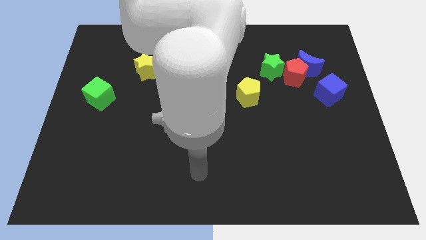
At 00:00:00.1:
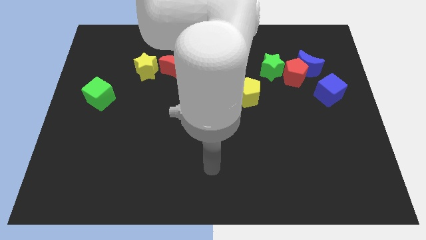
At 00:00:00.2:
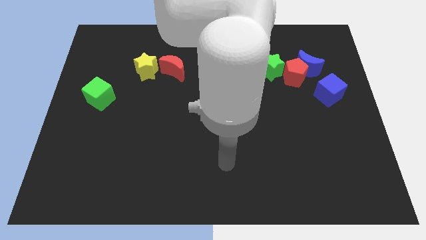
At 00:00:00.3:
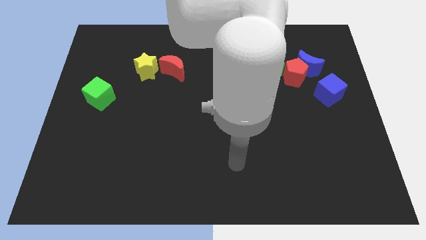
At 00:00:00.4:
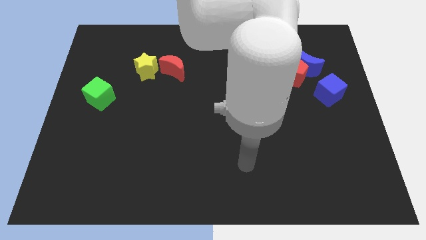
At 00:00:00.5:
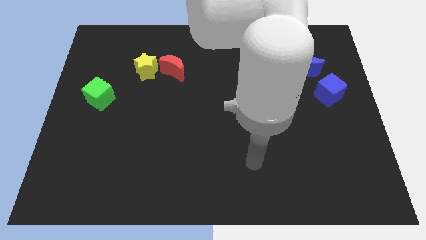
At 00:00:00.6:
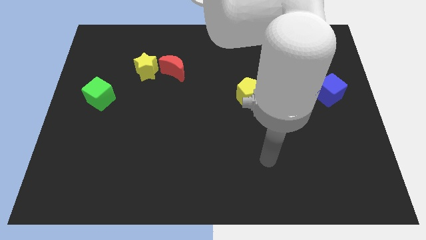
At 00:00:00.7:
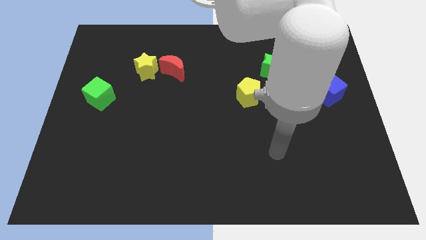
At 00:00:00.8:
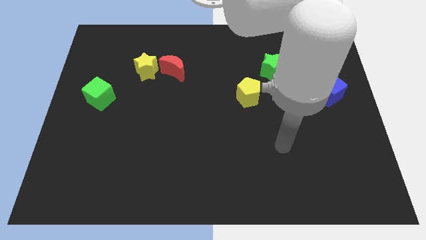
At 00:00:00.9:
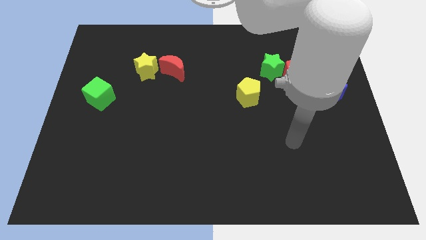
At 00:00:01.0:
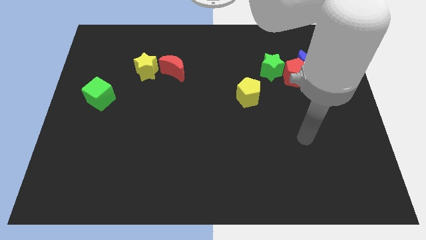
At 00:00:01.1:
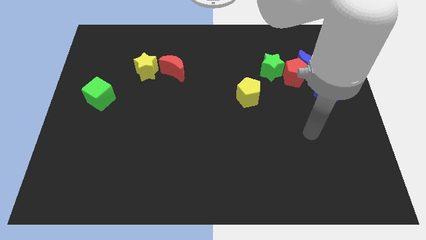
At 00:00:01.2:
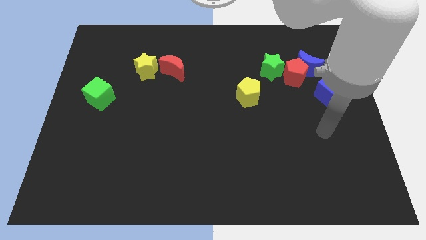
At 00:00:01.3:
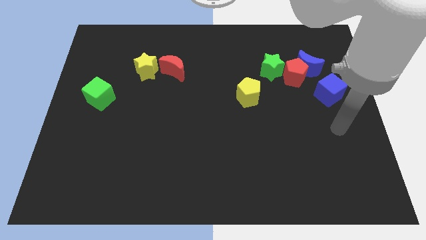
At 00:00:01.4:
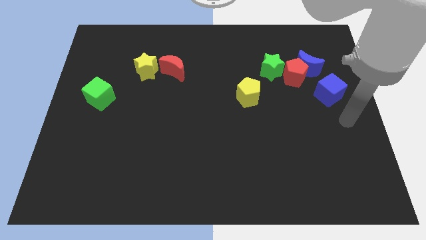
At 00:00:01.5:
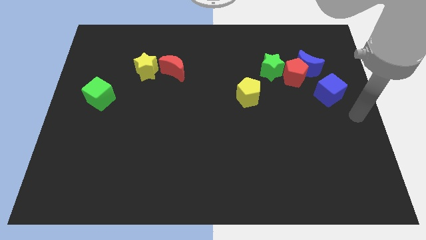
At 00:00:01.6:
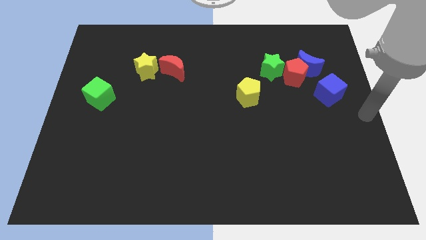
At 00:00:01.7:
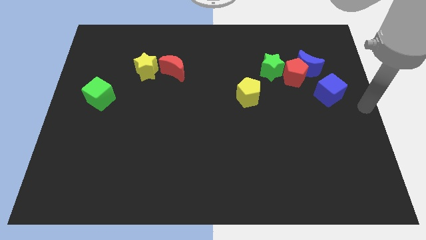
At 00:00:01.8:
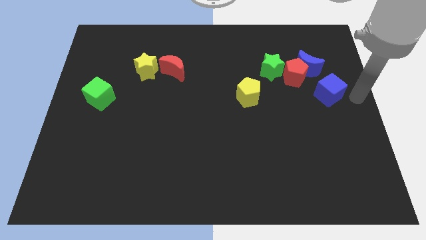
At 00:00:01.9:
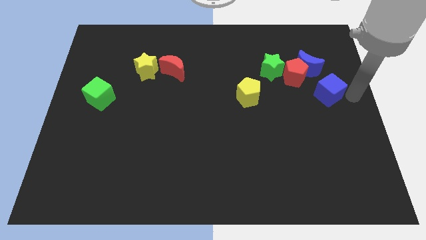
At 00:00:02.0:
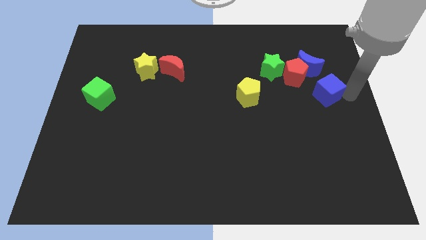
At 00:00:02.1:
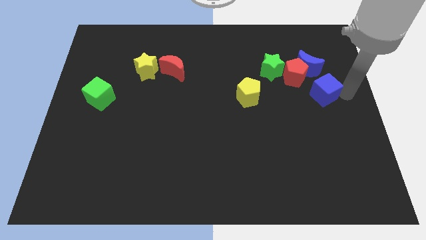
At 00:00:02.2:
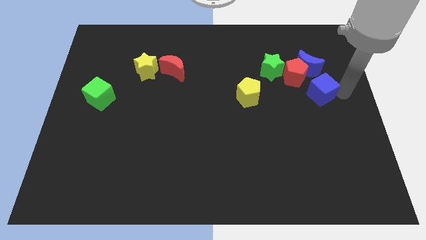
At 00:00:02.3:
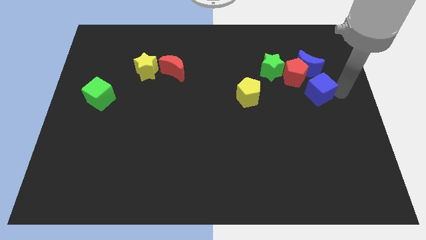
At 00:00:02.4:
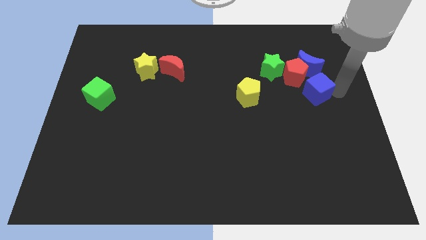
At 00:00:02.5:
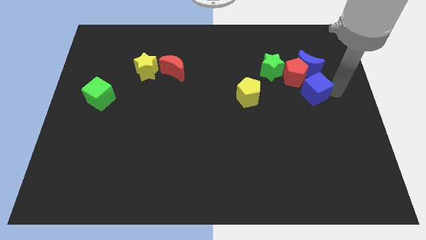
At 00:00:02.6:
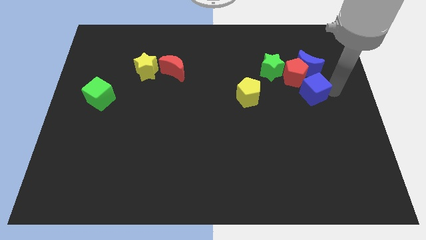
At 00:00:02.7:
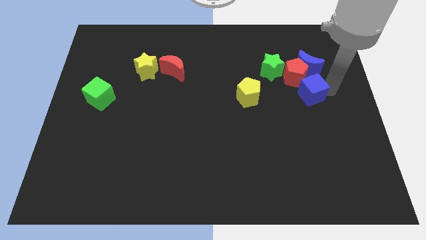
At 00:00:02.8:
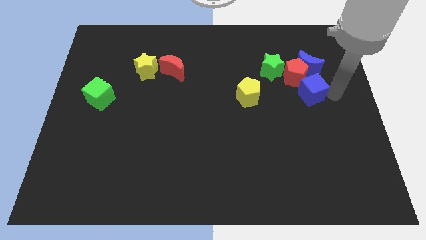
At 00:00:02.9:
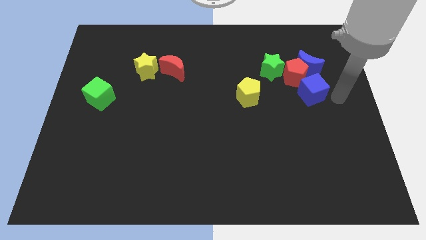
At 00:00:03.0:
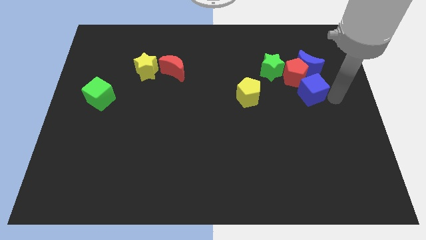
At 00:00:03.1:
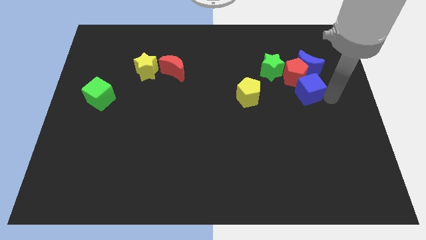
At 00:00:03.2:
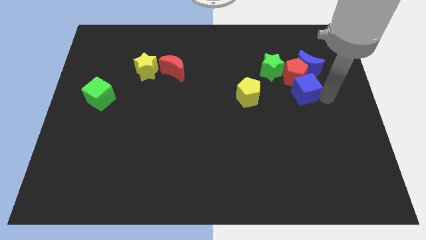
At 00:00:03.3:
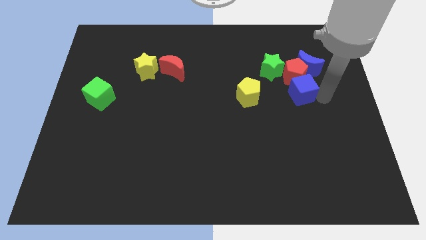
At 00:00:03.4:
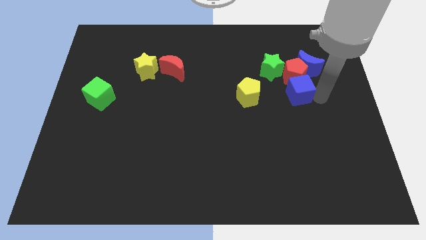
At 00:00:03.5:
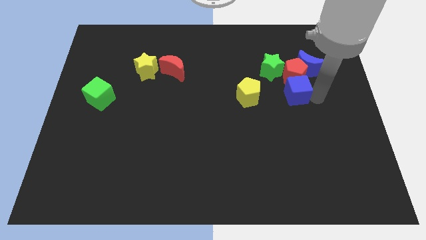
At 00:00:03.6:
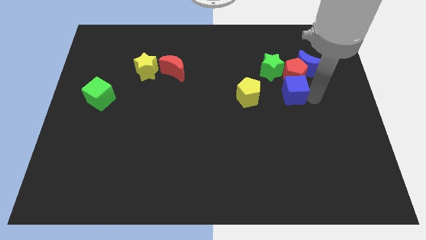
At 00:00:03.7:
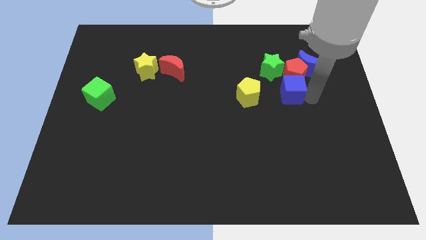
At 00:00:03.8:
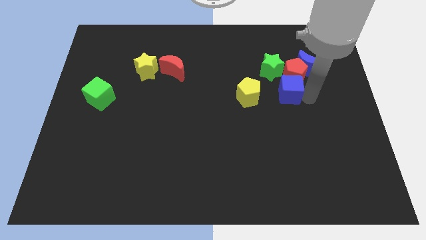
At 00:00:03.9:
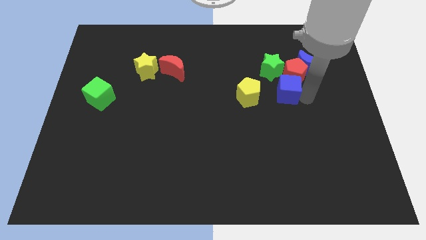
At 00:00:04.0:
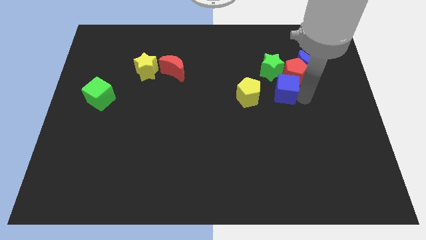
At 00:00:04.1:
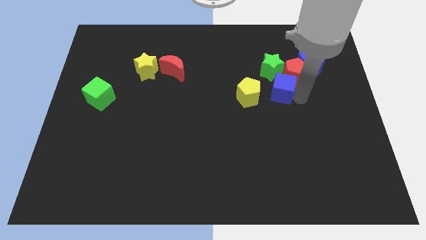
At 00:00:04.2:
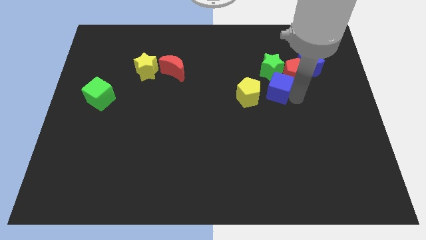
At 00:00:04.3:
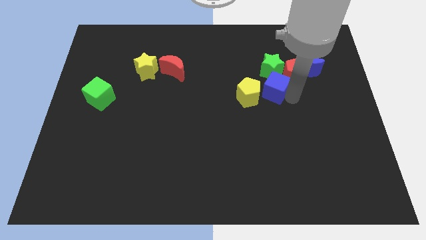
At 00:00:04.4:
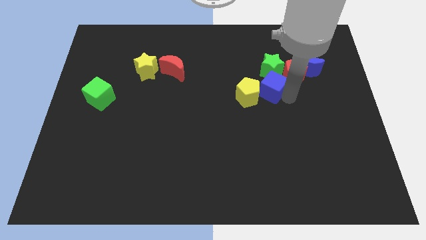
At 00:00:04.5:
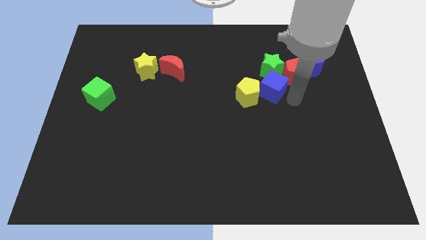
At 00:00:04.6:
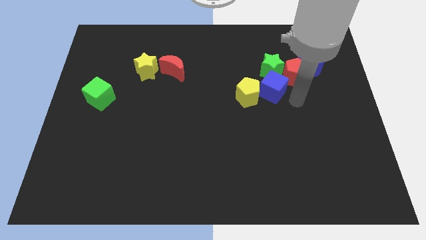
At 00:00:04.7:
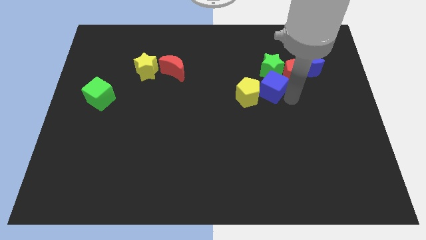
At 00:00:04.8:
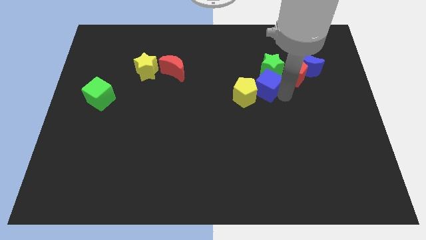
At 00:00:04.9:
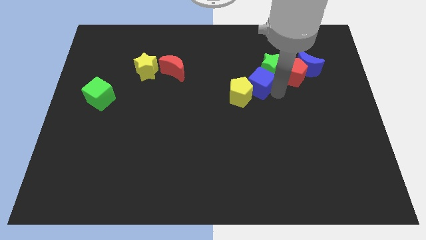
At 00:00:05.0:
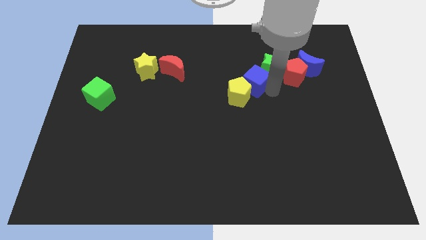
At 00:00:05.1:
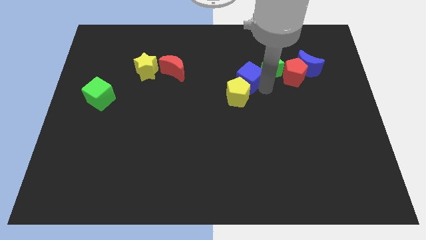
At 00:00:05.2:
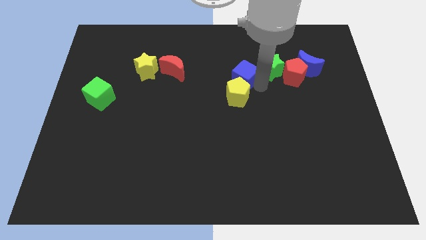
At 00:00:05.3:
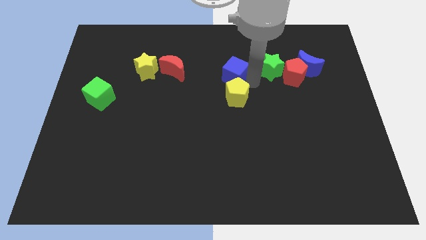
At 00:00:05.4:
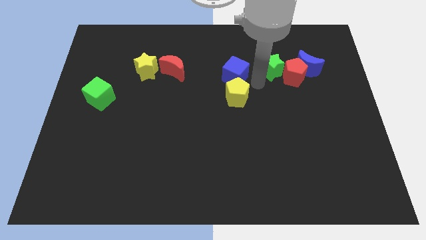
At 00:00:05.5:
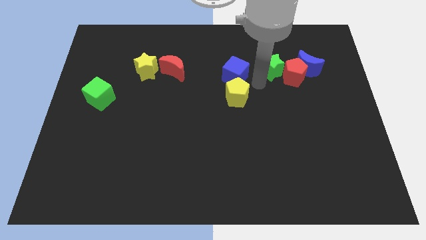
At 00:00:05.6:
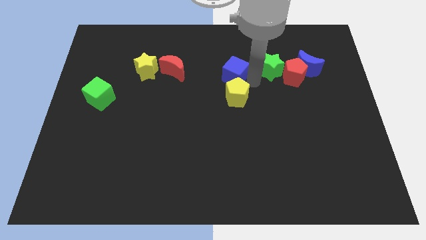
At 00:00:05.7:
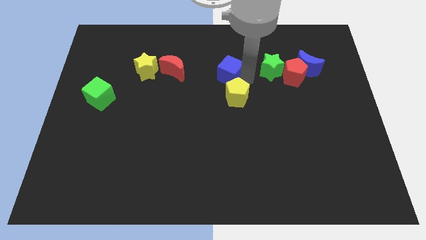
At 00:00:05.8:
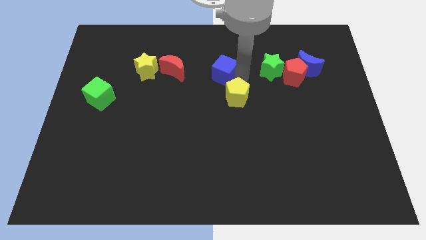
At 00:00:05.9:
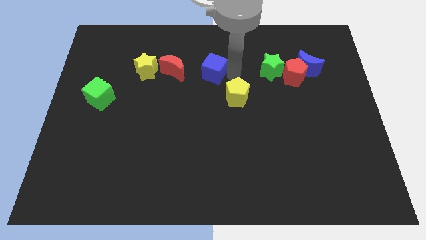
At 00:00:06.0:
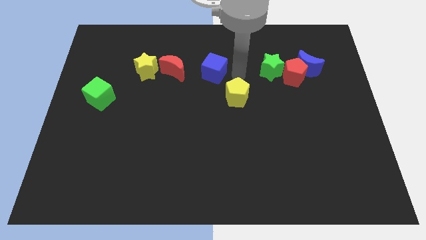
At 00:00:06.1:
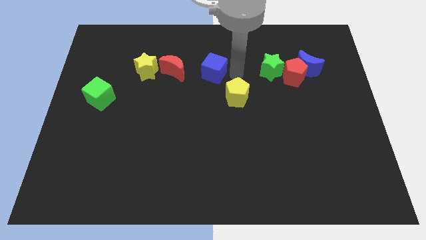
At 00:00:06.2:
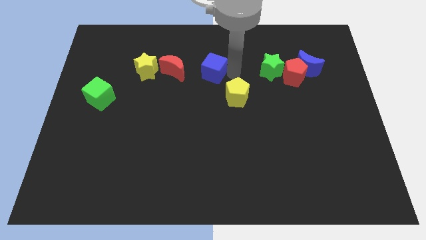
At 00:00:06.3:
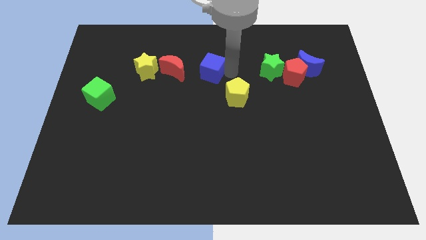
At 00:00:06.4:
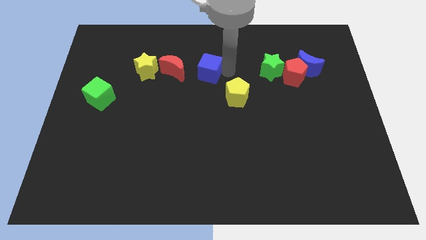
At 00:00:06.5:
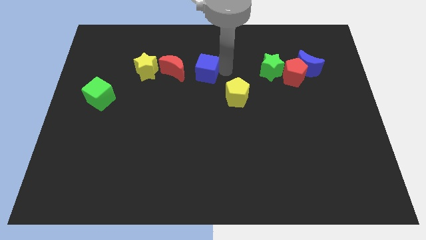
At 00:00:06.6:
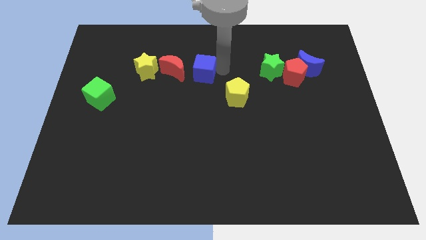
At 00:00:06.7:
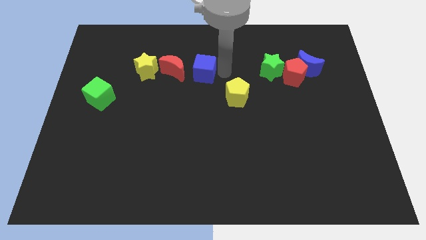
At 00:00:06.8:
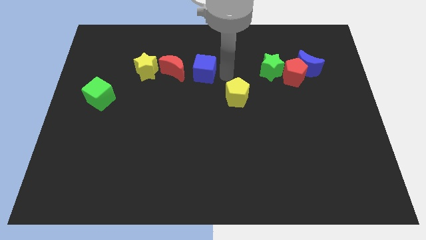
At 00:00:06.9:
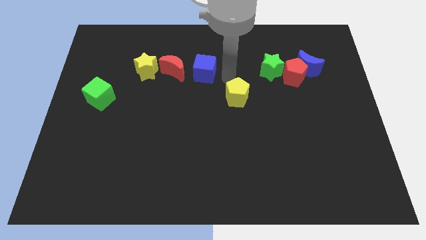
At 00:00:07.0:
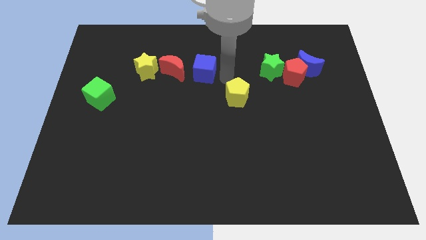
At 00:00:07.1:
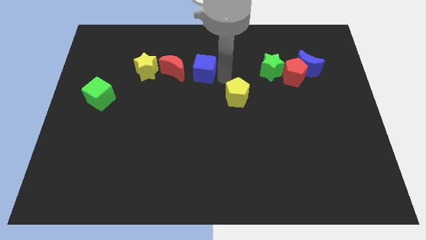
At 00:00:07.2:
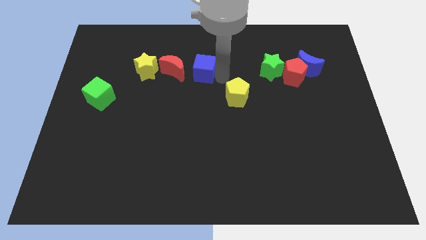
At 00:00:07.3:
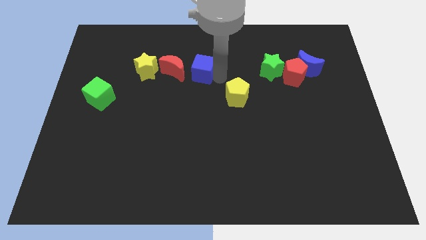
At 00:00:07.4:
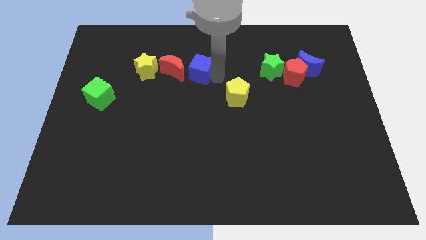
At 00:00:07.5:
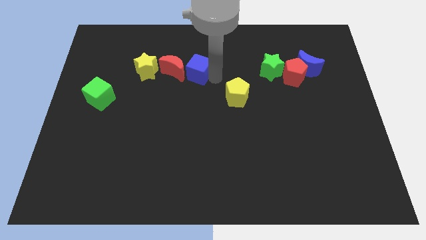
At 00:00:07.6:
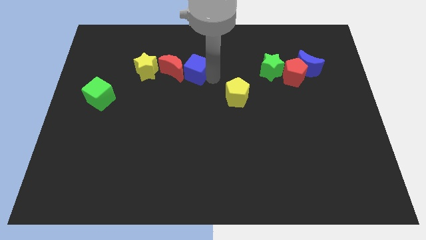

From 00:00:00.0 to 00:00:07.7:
push the blue cube next to the red moon
